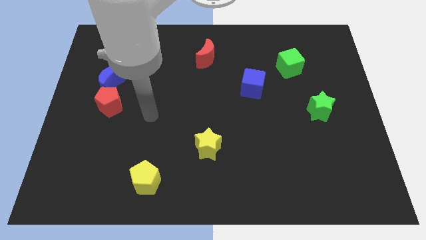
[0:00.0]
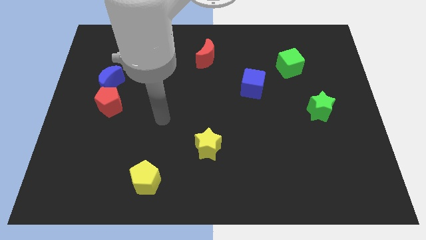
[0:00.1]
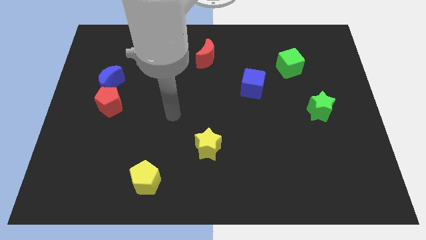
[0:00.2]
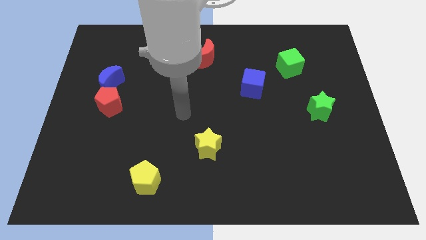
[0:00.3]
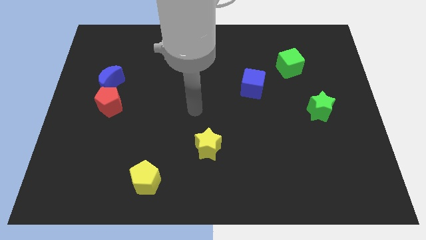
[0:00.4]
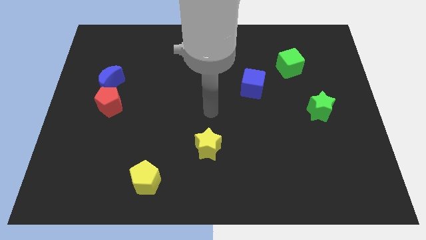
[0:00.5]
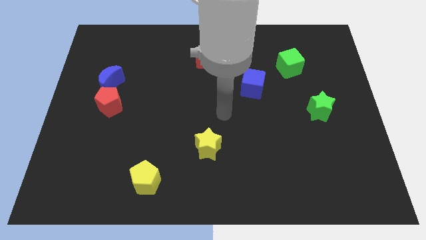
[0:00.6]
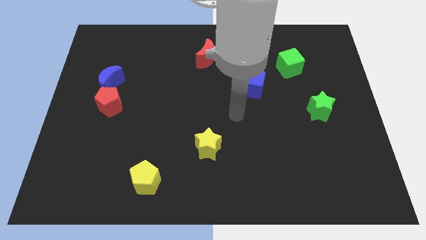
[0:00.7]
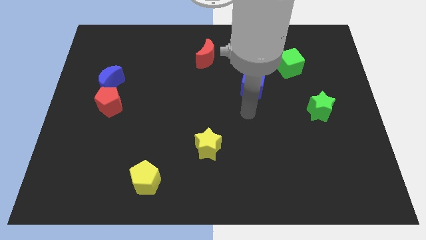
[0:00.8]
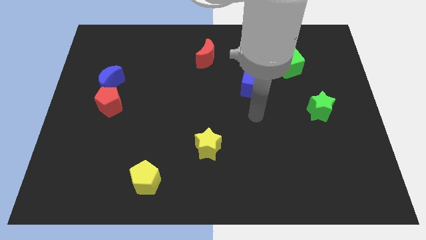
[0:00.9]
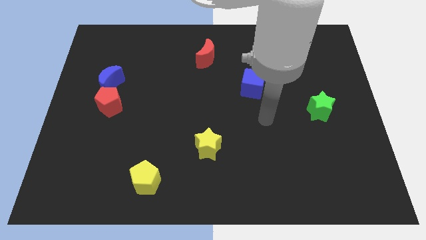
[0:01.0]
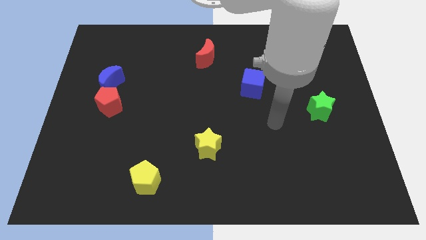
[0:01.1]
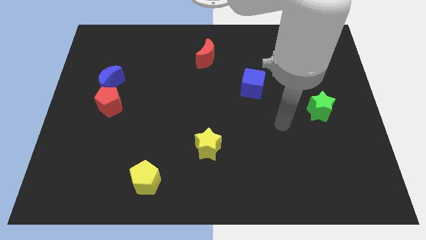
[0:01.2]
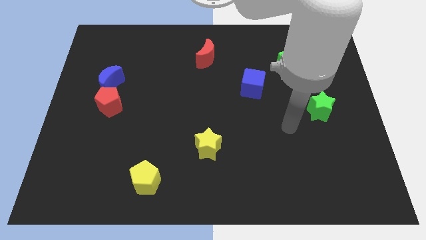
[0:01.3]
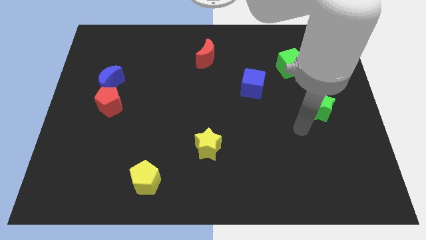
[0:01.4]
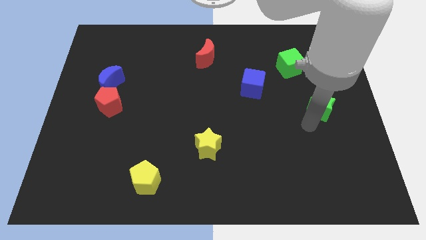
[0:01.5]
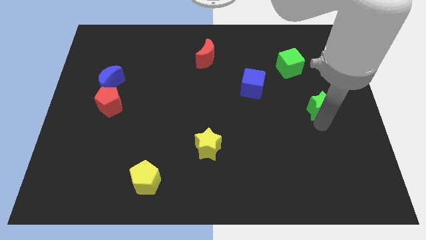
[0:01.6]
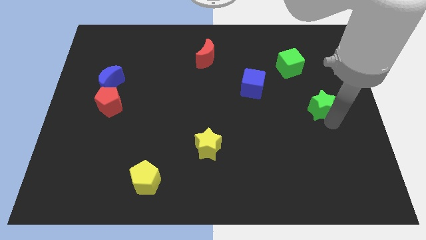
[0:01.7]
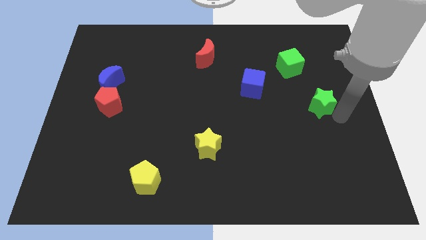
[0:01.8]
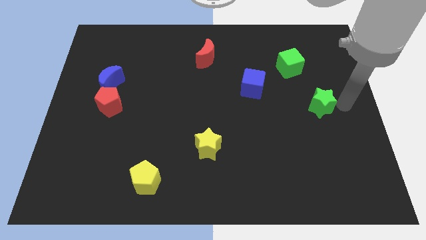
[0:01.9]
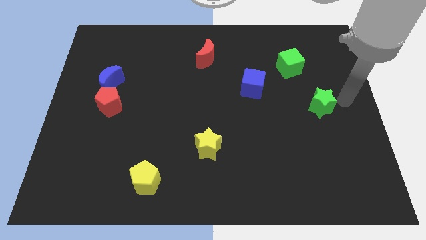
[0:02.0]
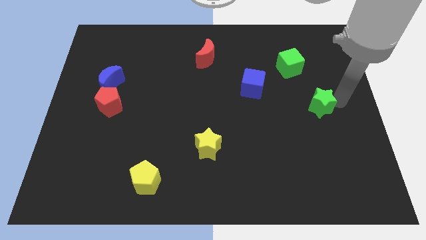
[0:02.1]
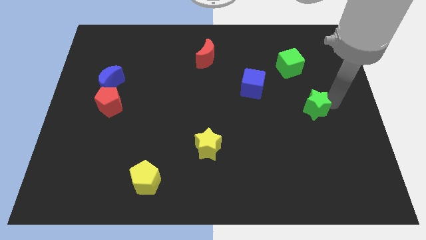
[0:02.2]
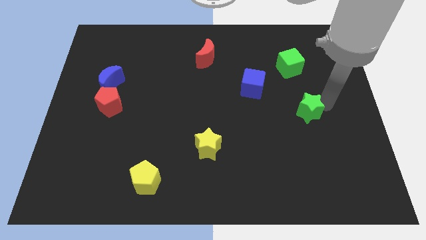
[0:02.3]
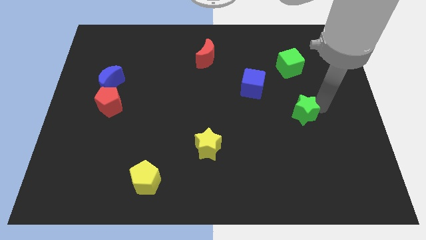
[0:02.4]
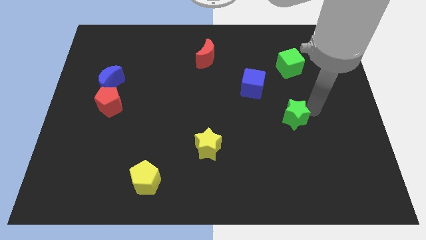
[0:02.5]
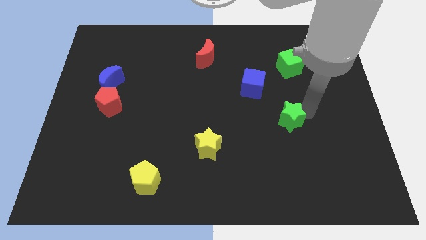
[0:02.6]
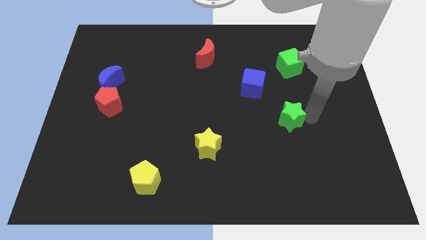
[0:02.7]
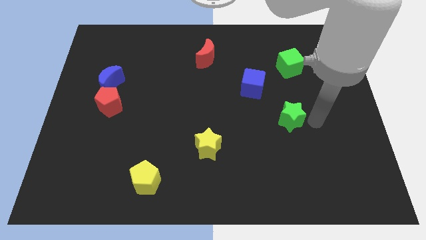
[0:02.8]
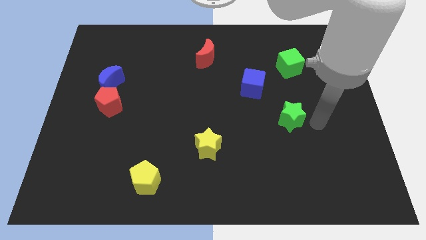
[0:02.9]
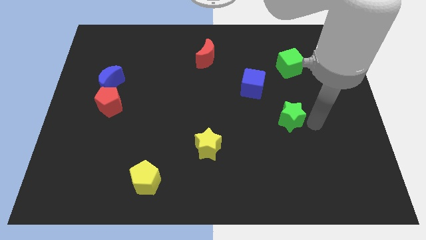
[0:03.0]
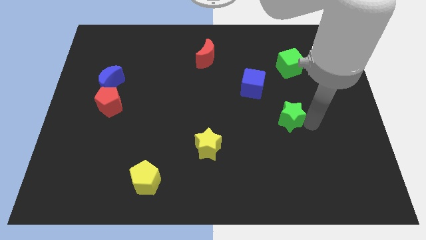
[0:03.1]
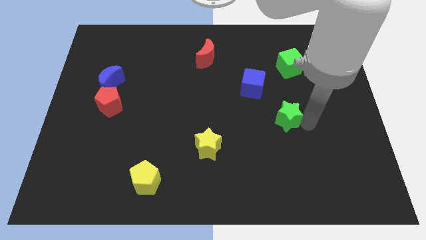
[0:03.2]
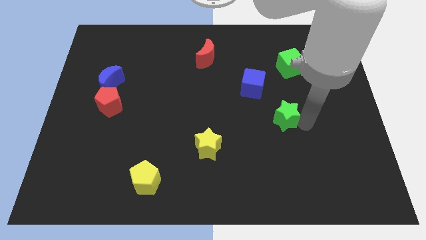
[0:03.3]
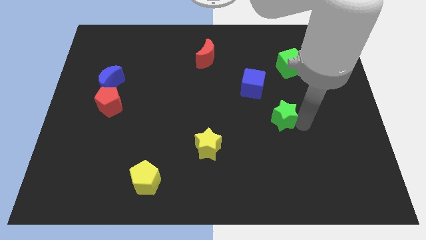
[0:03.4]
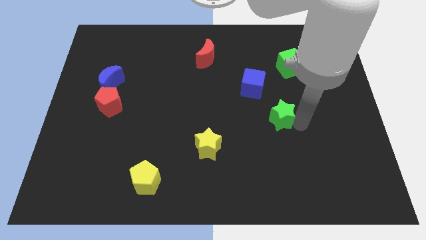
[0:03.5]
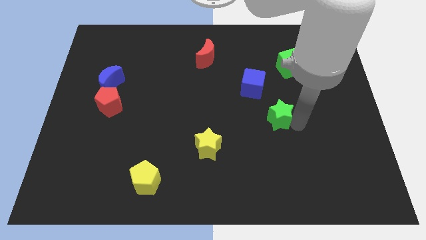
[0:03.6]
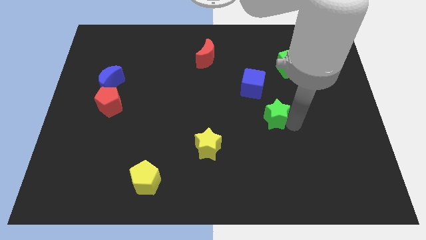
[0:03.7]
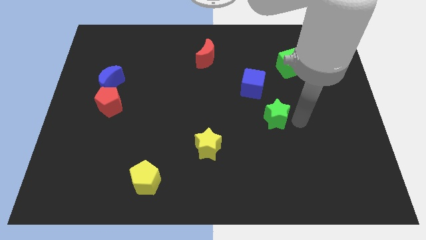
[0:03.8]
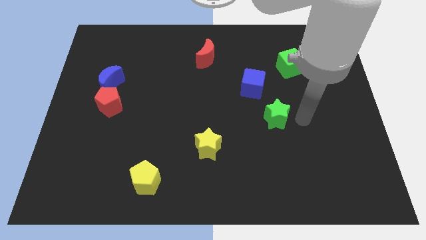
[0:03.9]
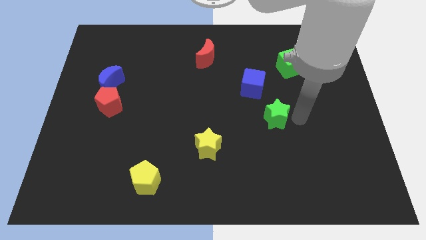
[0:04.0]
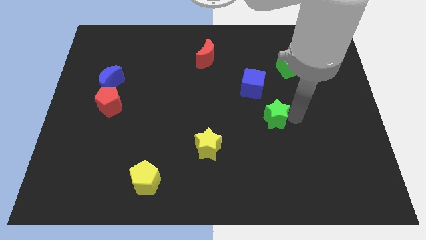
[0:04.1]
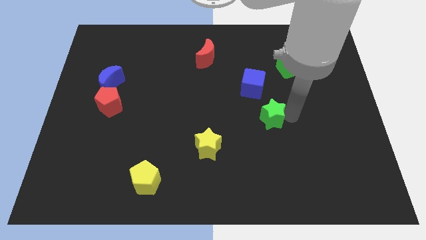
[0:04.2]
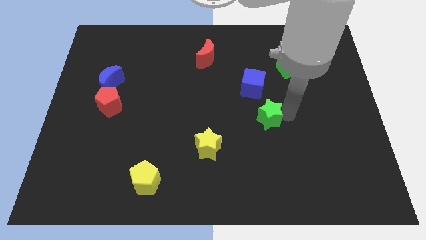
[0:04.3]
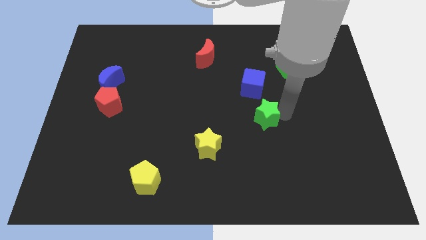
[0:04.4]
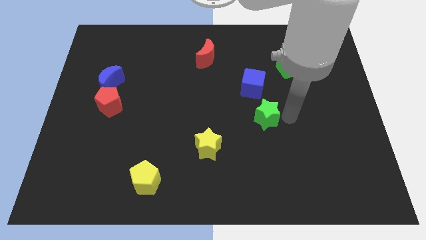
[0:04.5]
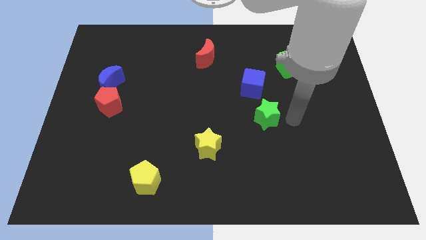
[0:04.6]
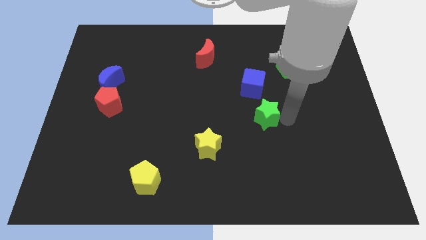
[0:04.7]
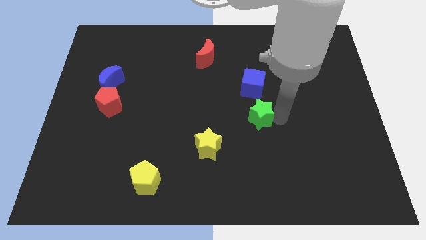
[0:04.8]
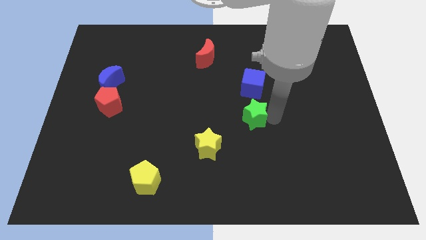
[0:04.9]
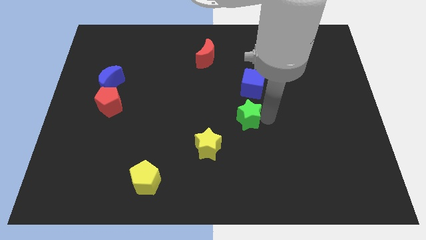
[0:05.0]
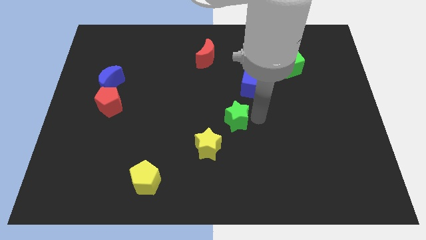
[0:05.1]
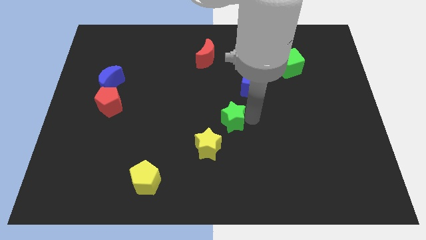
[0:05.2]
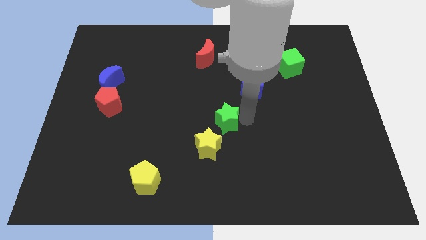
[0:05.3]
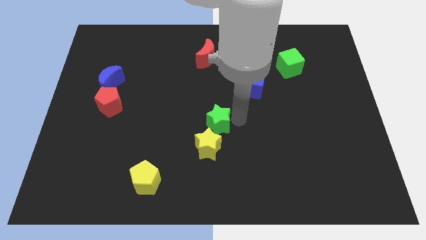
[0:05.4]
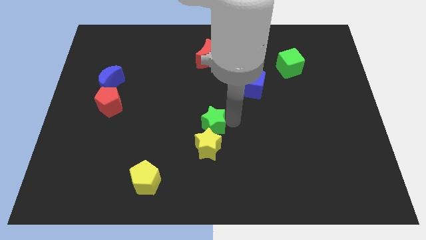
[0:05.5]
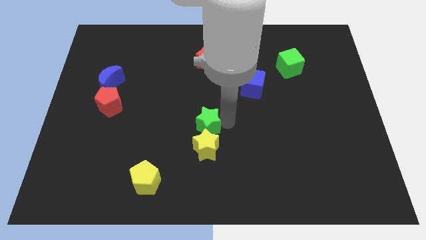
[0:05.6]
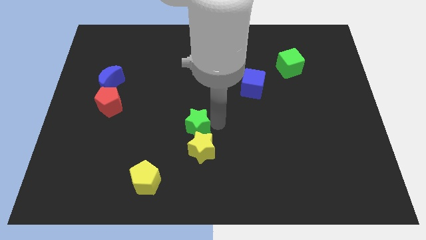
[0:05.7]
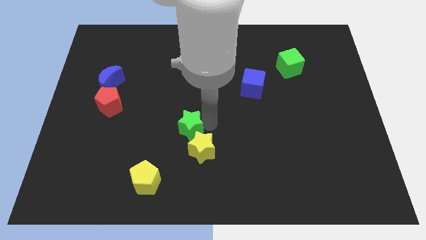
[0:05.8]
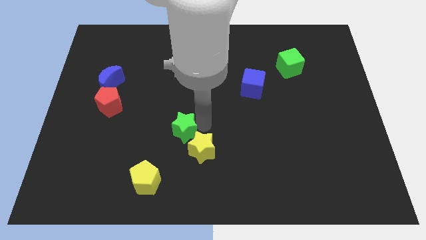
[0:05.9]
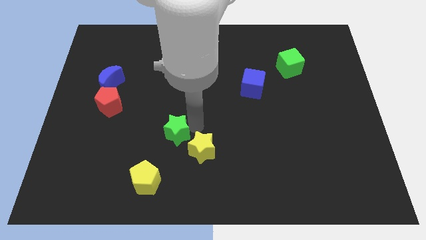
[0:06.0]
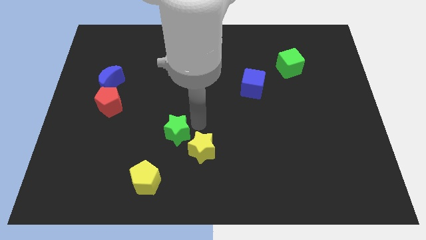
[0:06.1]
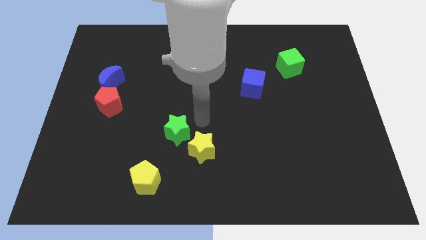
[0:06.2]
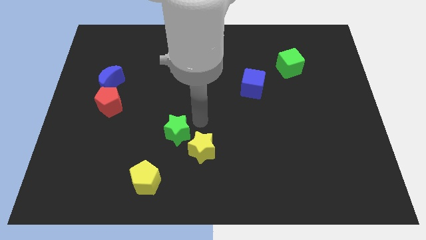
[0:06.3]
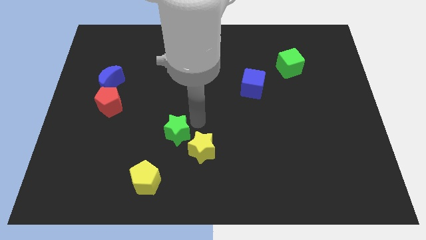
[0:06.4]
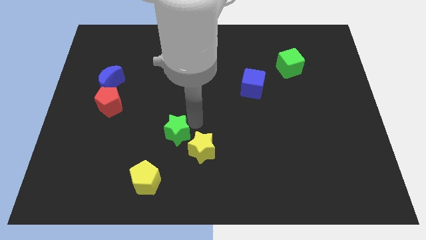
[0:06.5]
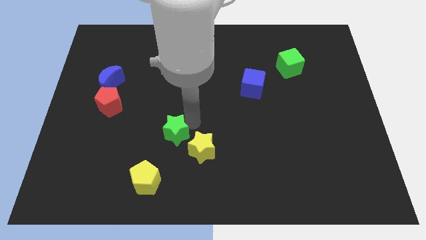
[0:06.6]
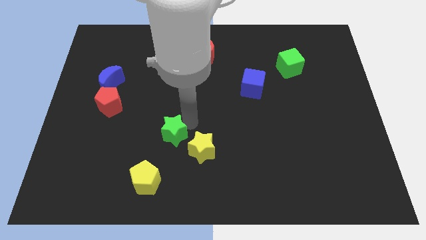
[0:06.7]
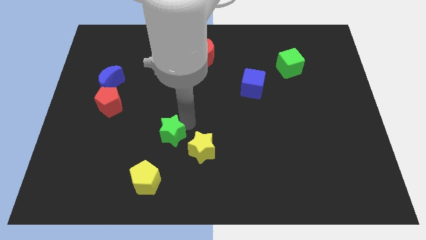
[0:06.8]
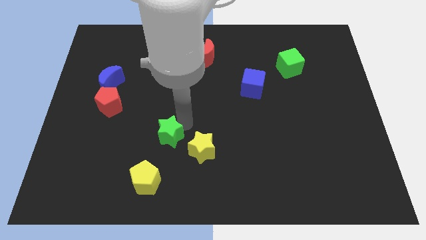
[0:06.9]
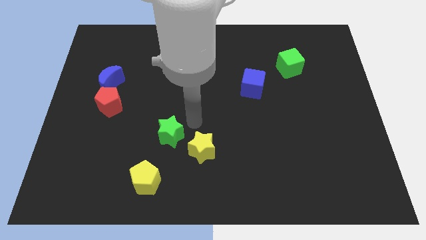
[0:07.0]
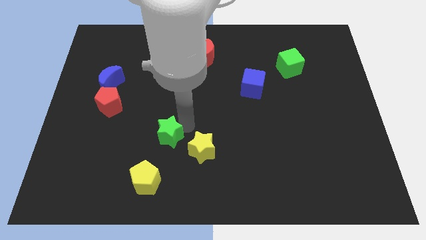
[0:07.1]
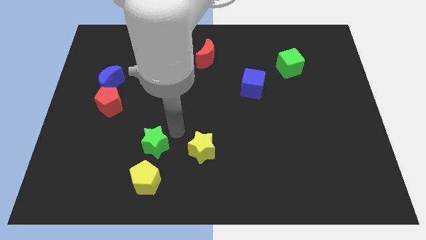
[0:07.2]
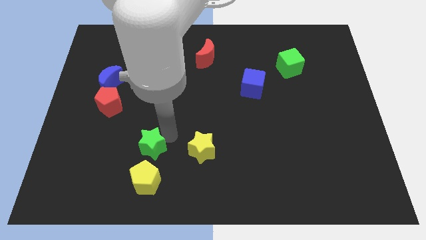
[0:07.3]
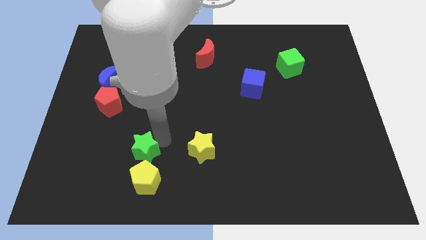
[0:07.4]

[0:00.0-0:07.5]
move the green star to the top left of the yellow pentagon
